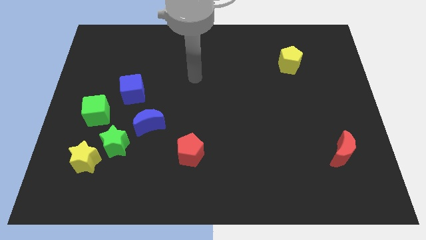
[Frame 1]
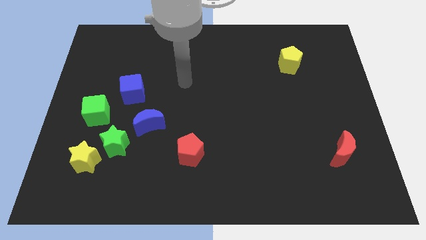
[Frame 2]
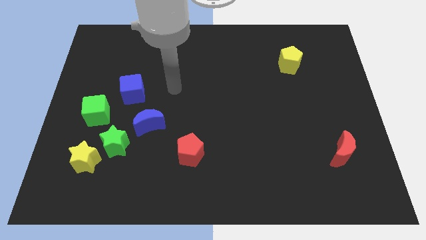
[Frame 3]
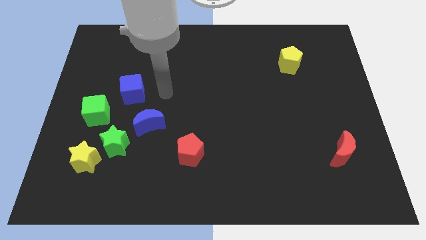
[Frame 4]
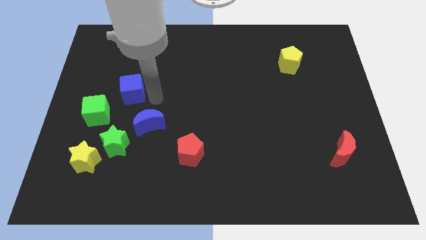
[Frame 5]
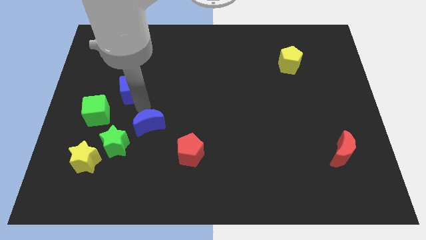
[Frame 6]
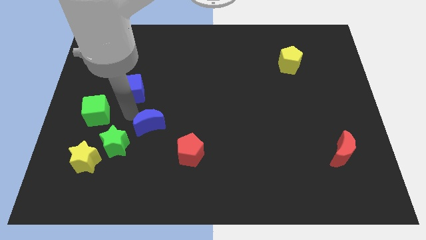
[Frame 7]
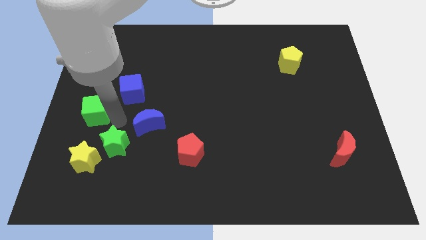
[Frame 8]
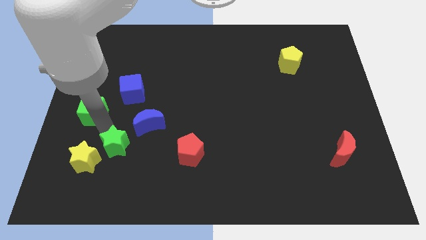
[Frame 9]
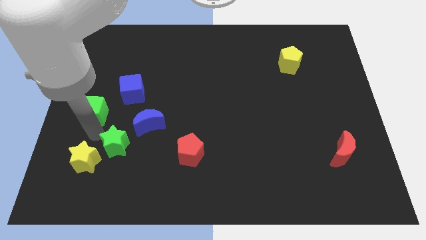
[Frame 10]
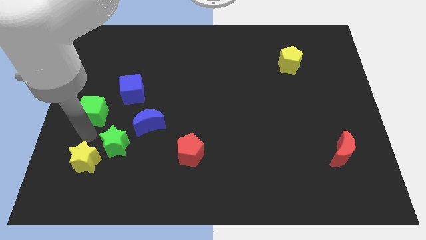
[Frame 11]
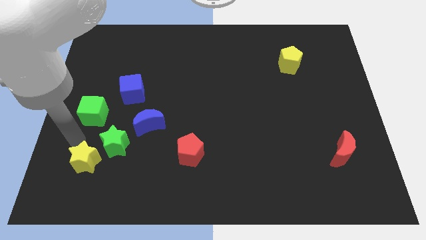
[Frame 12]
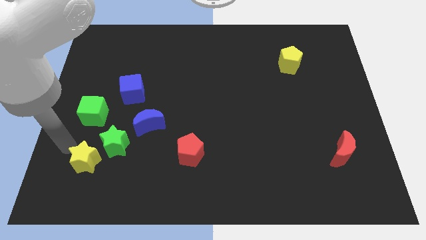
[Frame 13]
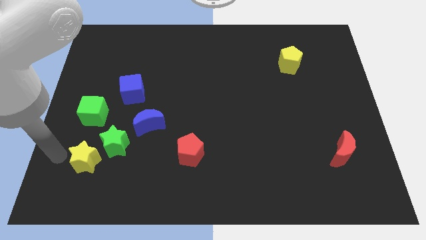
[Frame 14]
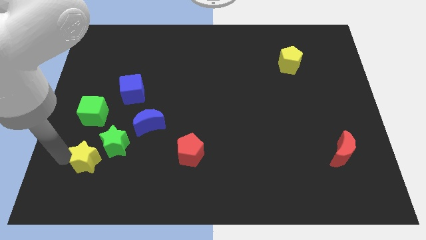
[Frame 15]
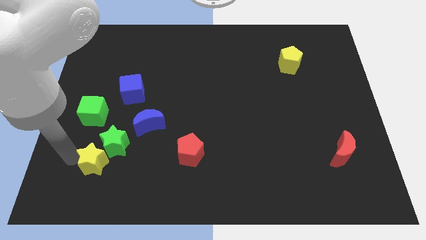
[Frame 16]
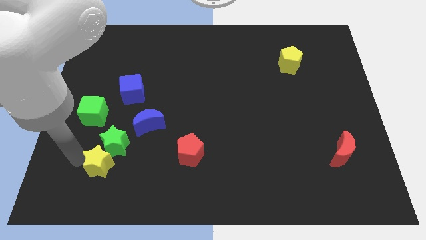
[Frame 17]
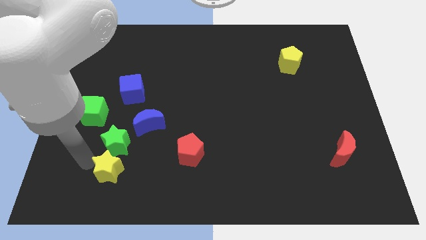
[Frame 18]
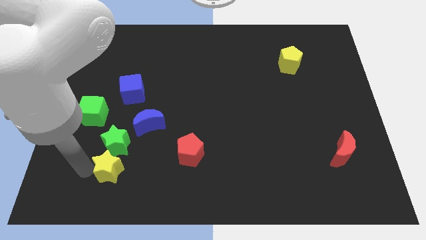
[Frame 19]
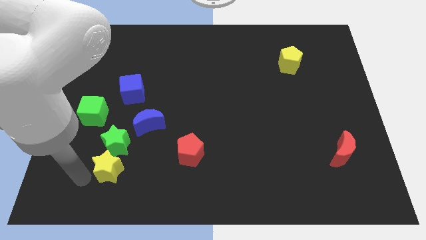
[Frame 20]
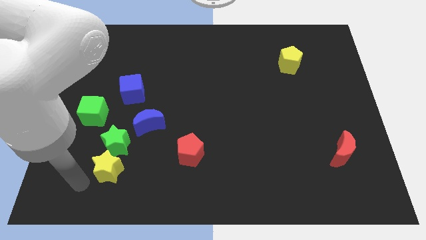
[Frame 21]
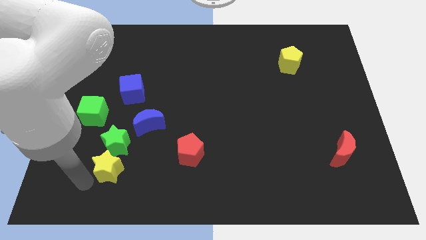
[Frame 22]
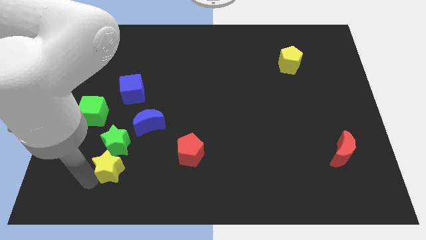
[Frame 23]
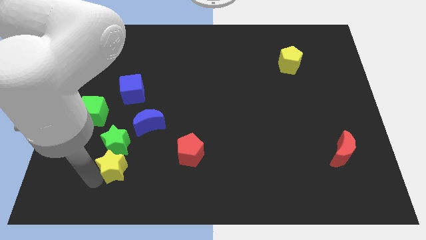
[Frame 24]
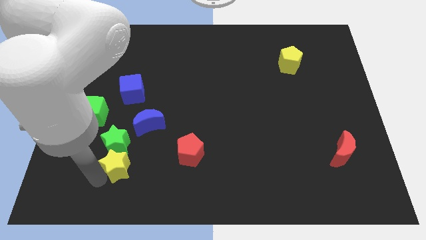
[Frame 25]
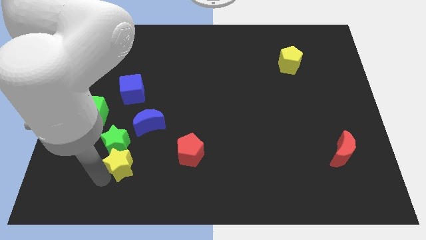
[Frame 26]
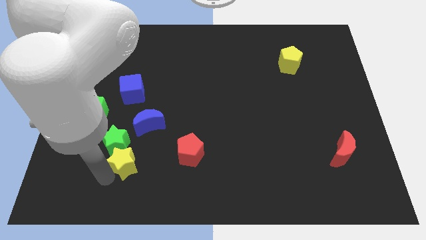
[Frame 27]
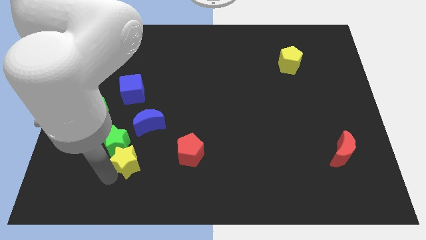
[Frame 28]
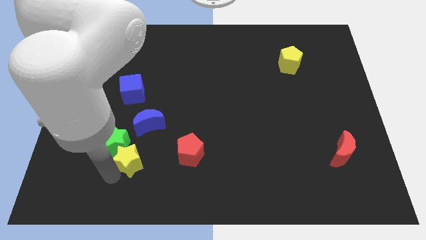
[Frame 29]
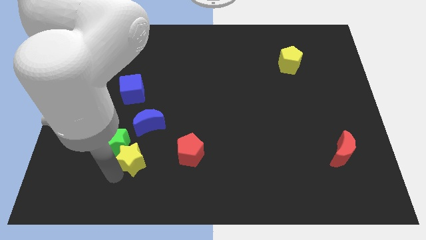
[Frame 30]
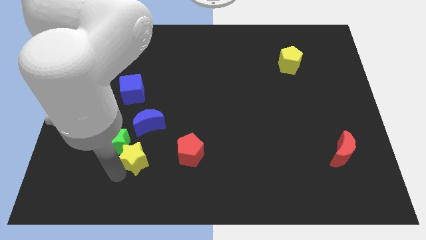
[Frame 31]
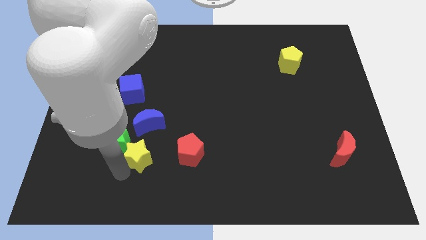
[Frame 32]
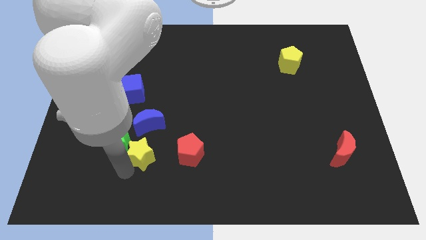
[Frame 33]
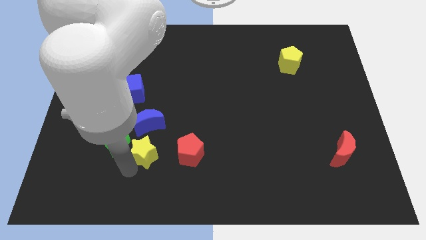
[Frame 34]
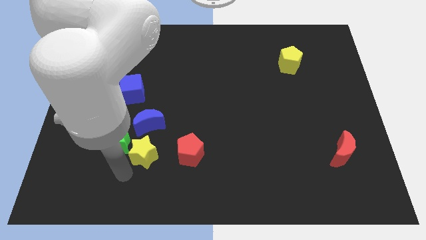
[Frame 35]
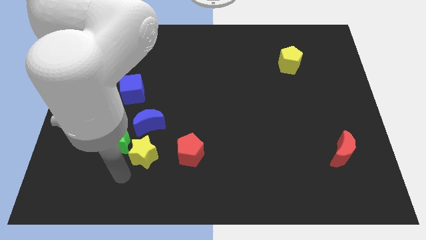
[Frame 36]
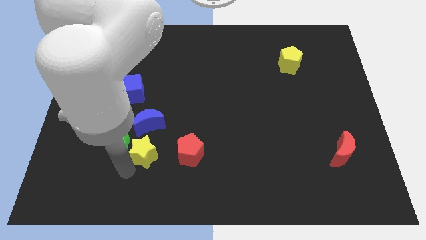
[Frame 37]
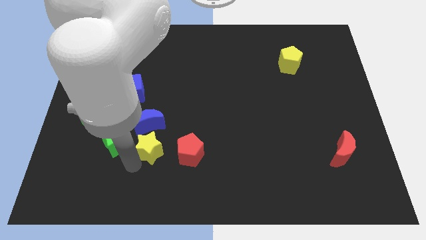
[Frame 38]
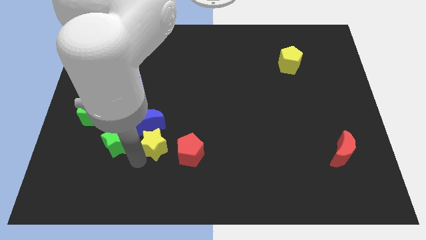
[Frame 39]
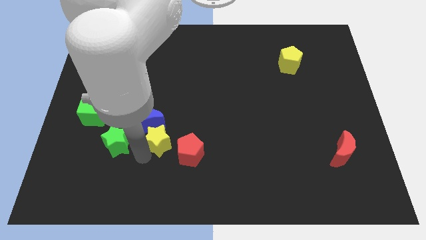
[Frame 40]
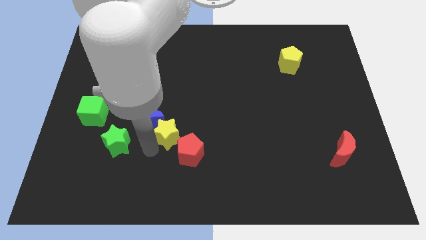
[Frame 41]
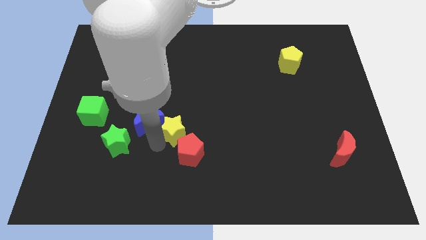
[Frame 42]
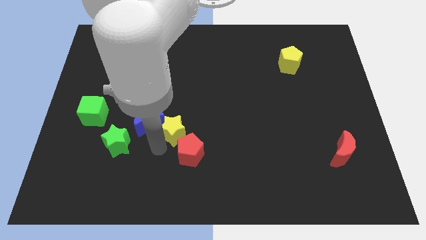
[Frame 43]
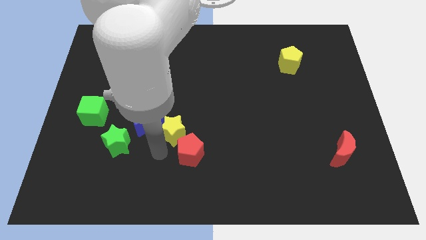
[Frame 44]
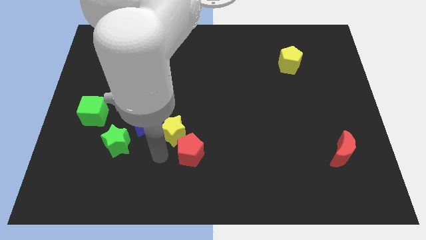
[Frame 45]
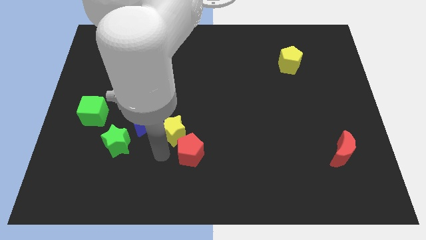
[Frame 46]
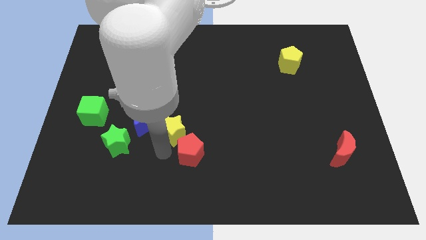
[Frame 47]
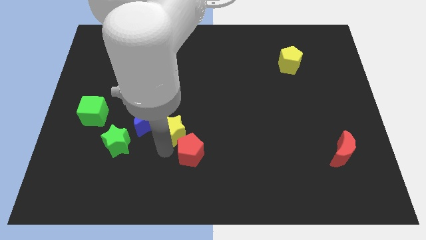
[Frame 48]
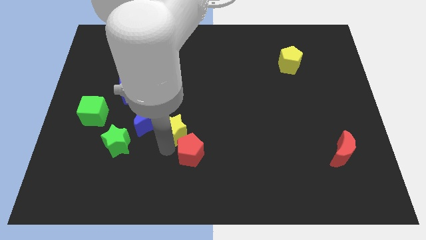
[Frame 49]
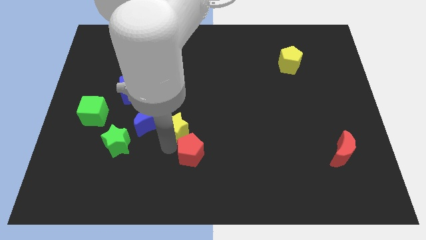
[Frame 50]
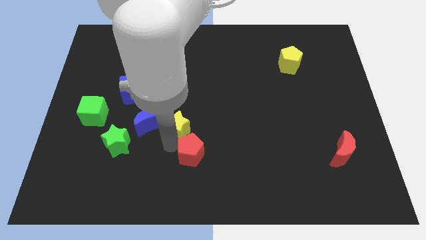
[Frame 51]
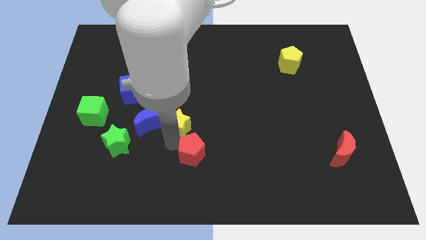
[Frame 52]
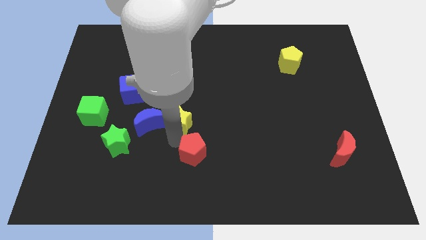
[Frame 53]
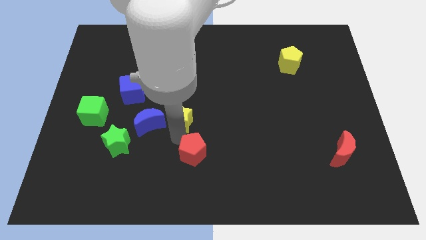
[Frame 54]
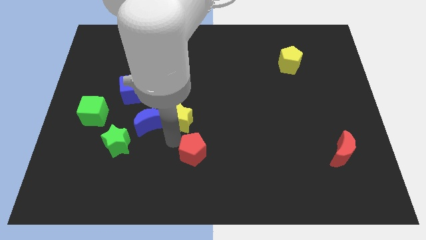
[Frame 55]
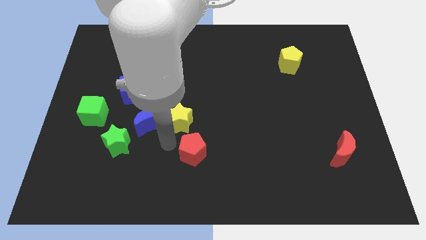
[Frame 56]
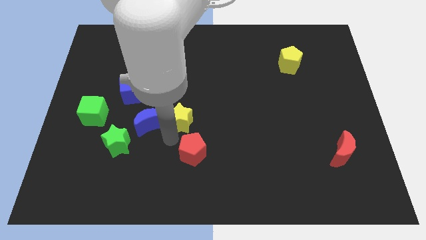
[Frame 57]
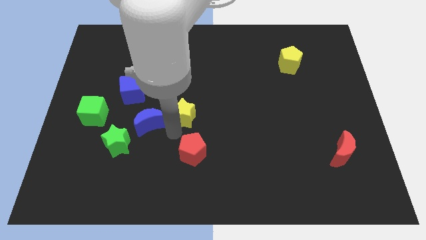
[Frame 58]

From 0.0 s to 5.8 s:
move the yellow star up and right

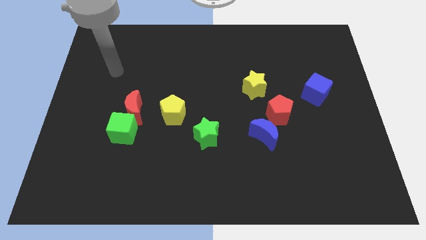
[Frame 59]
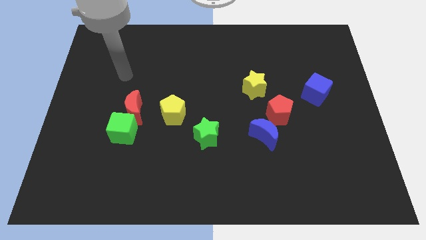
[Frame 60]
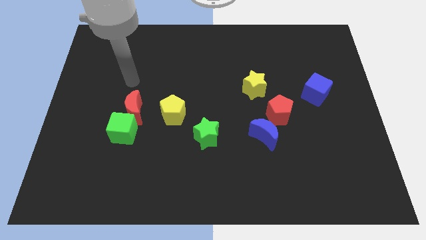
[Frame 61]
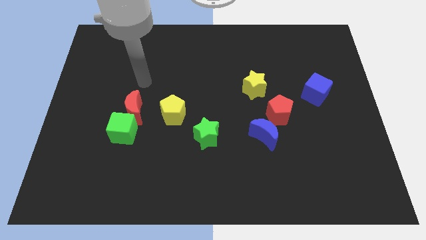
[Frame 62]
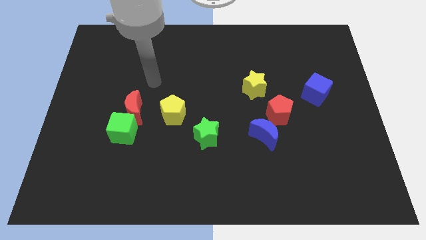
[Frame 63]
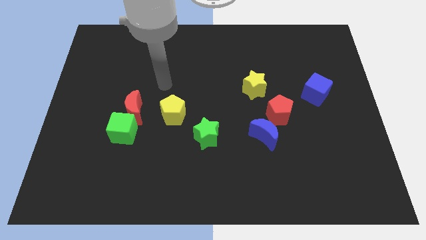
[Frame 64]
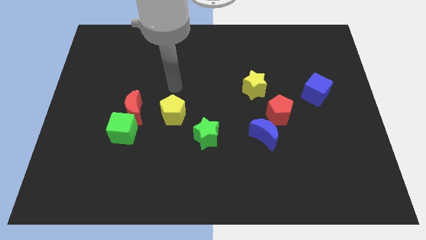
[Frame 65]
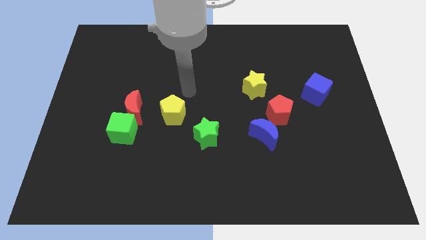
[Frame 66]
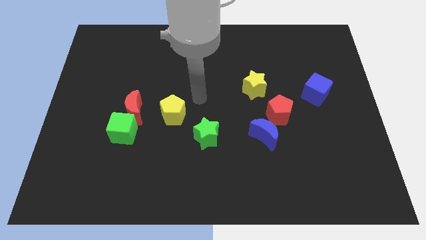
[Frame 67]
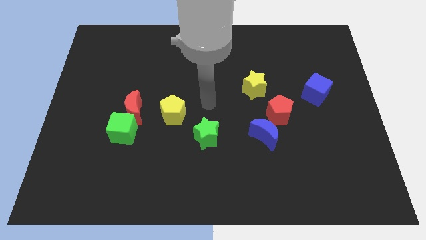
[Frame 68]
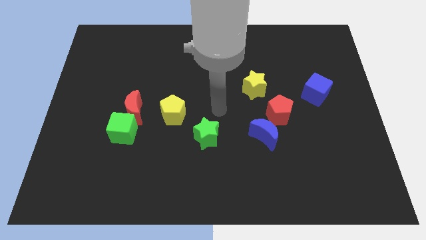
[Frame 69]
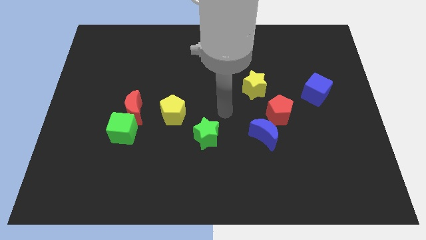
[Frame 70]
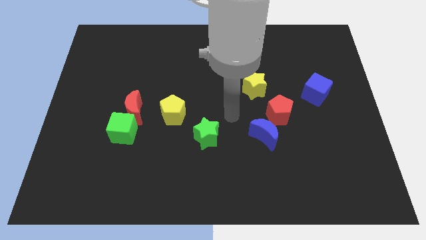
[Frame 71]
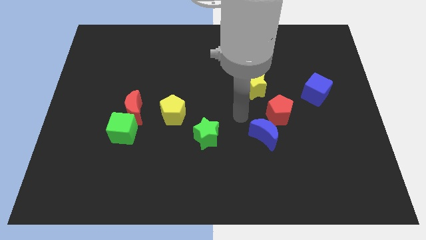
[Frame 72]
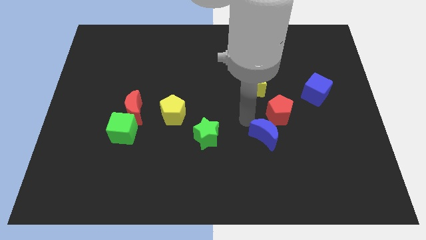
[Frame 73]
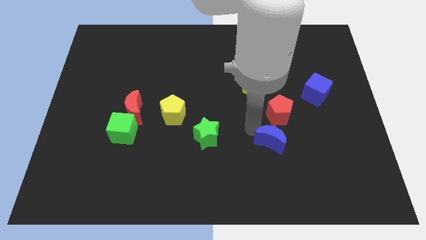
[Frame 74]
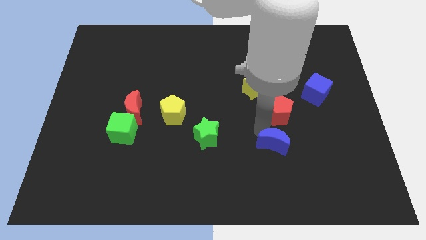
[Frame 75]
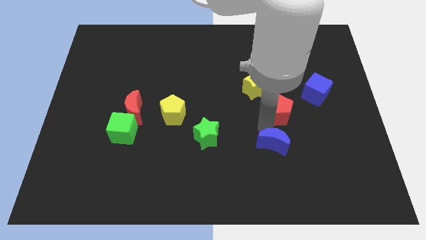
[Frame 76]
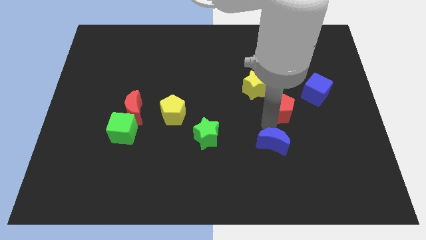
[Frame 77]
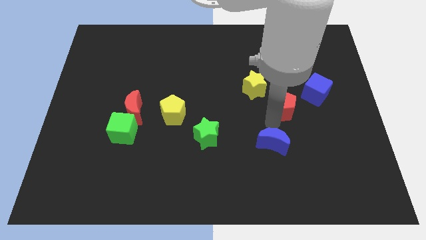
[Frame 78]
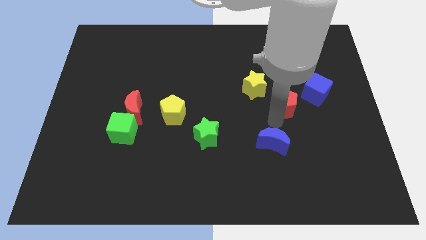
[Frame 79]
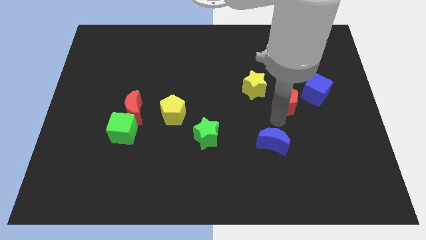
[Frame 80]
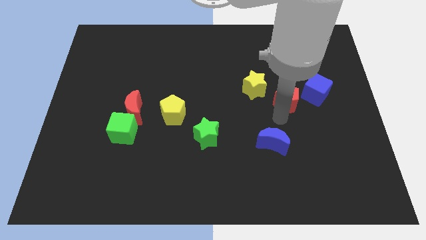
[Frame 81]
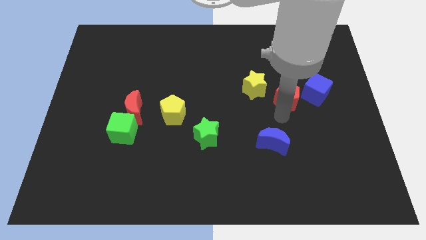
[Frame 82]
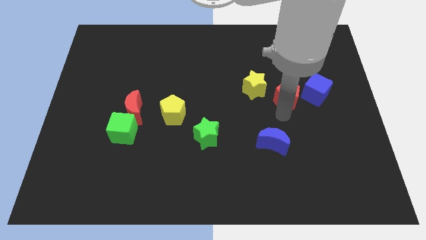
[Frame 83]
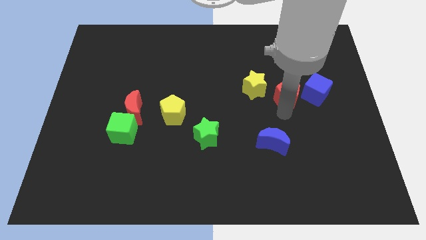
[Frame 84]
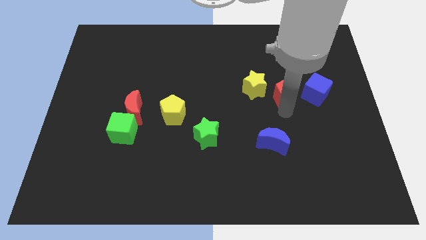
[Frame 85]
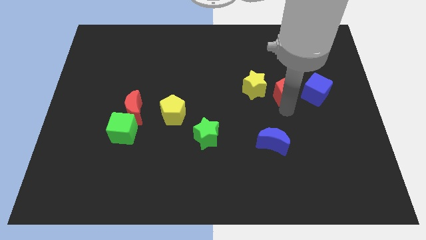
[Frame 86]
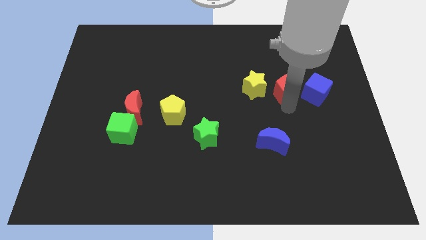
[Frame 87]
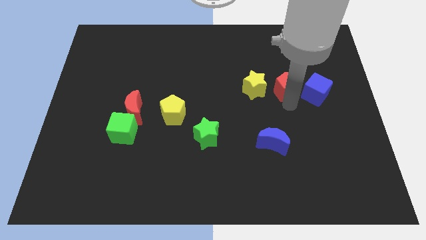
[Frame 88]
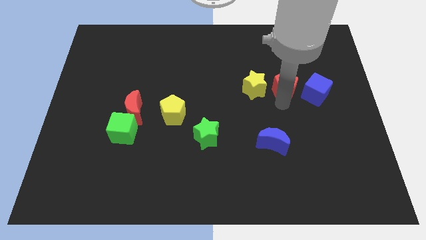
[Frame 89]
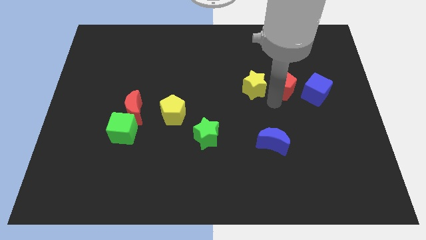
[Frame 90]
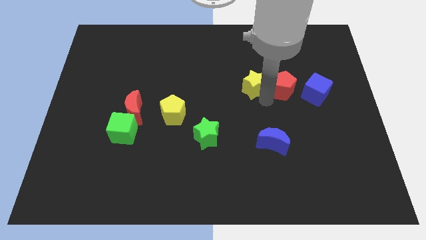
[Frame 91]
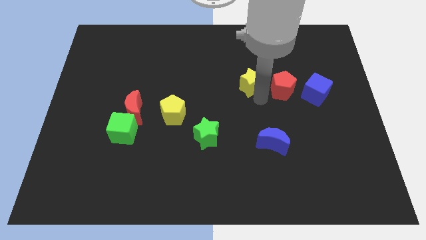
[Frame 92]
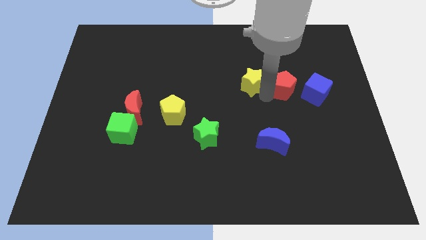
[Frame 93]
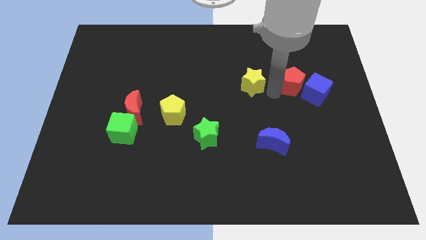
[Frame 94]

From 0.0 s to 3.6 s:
slide the red pentagon slightly upwards and then to the right
